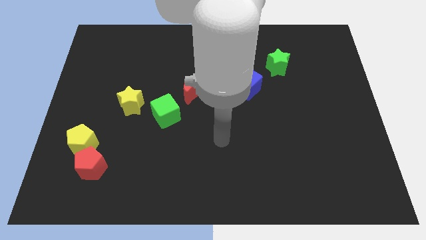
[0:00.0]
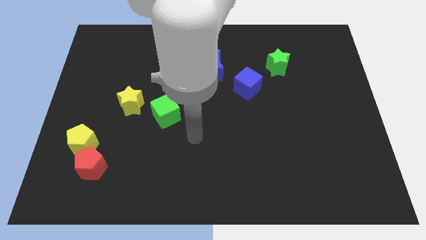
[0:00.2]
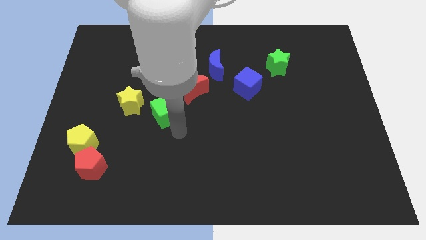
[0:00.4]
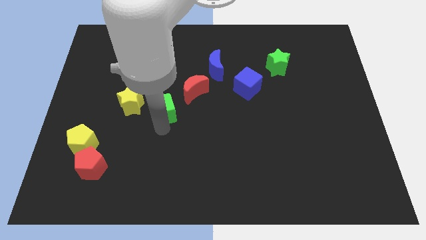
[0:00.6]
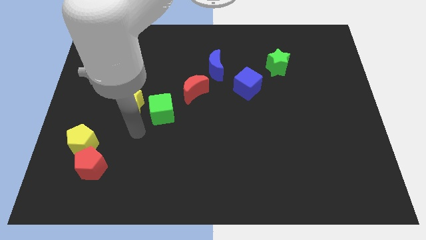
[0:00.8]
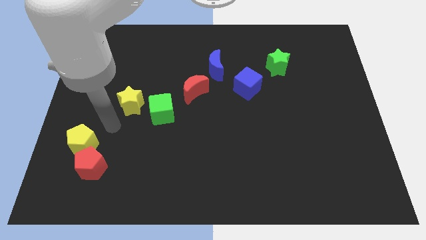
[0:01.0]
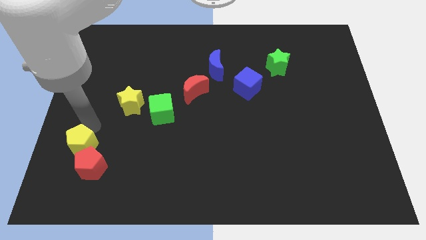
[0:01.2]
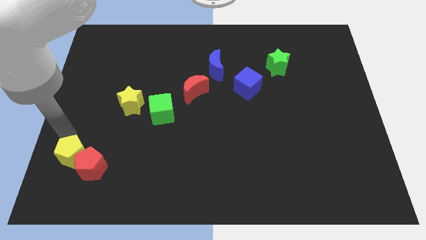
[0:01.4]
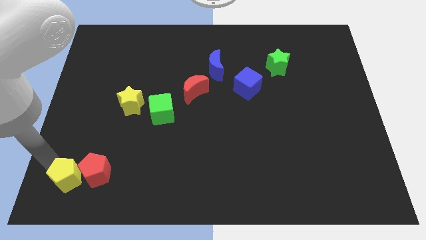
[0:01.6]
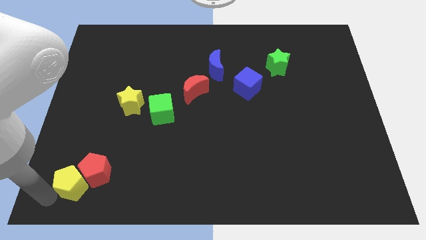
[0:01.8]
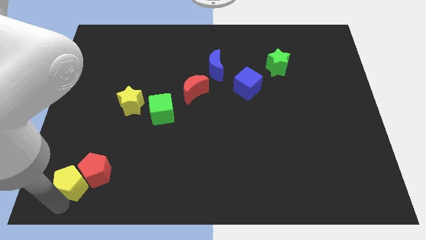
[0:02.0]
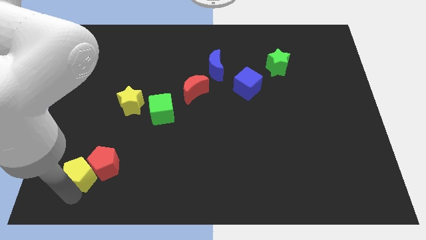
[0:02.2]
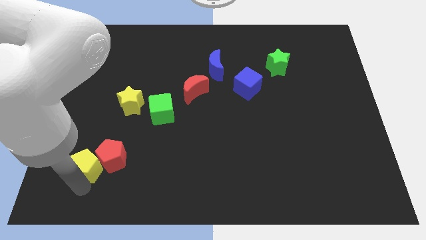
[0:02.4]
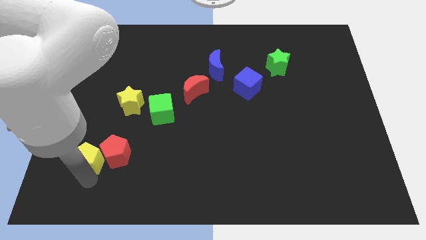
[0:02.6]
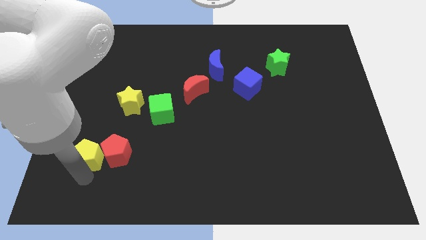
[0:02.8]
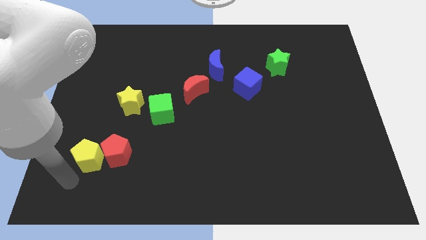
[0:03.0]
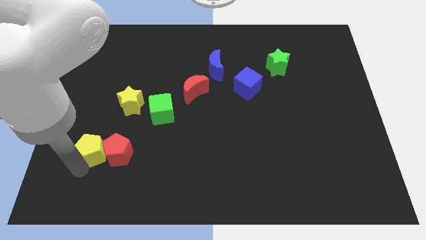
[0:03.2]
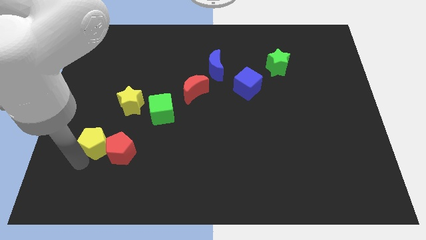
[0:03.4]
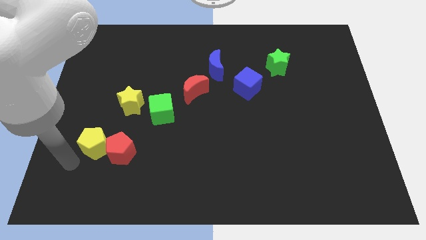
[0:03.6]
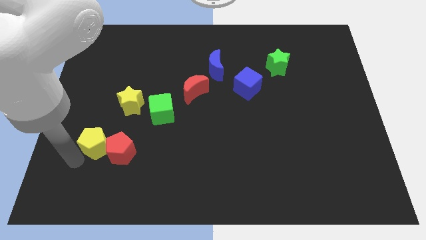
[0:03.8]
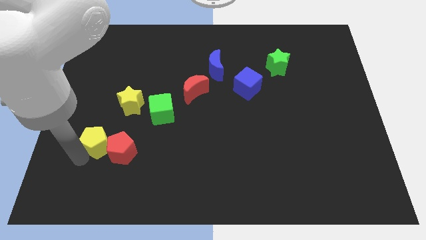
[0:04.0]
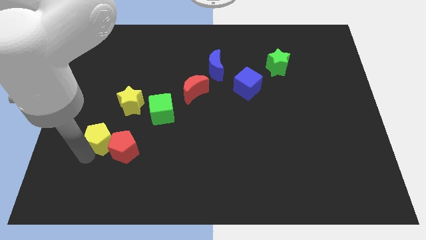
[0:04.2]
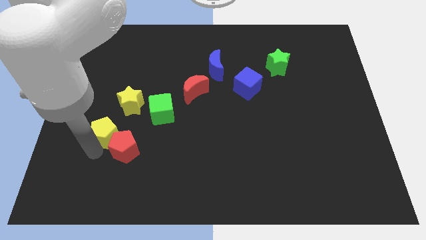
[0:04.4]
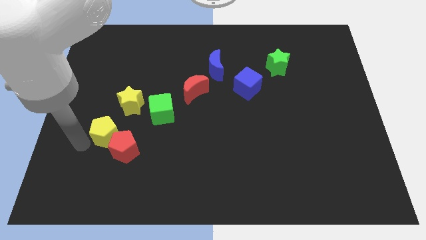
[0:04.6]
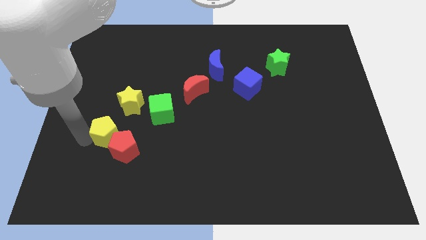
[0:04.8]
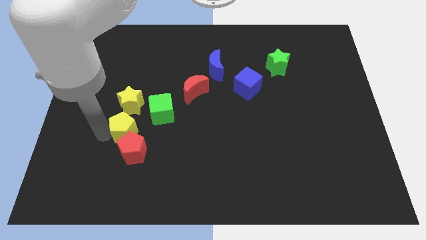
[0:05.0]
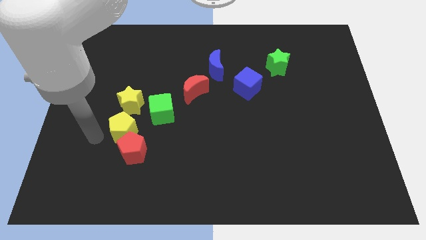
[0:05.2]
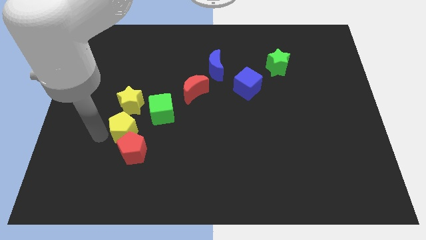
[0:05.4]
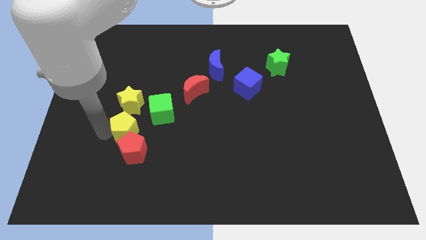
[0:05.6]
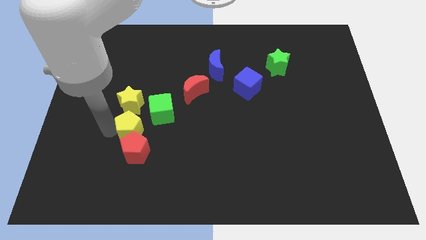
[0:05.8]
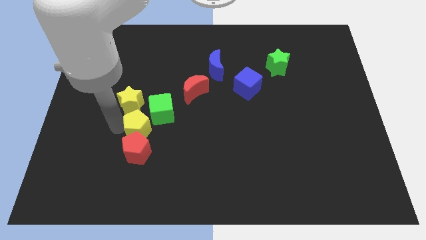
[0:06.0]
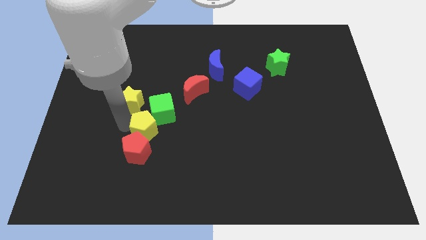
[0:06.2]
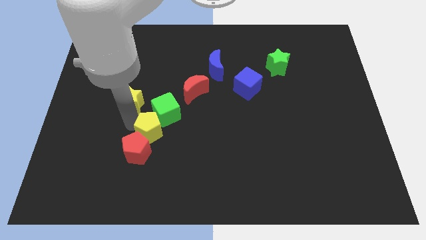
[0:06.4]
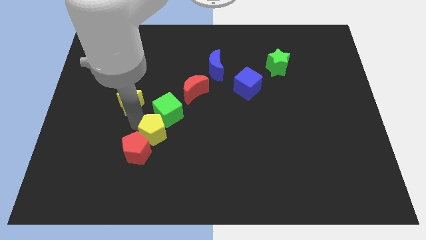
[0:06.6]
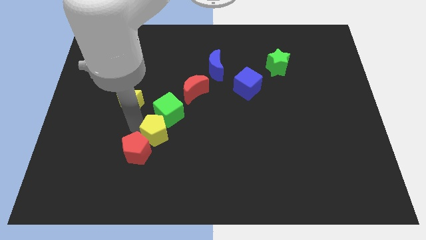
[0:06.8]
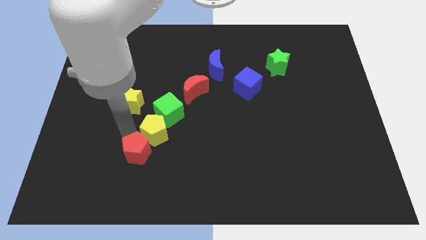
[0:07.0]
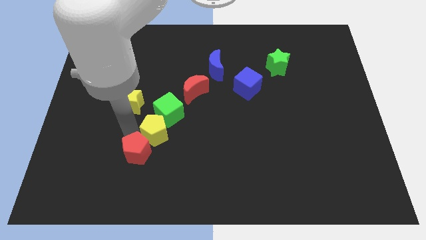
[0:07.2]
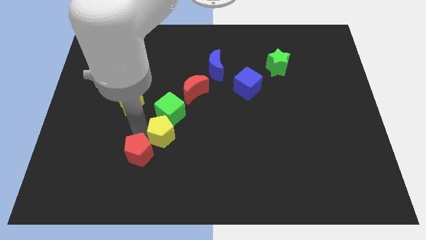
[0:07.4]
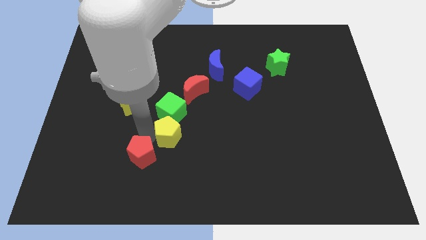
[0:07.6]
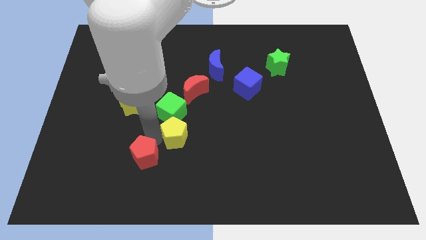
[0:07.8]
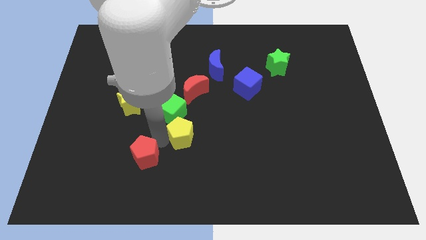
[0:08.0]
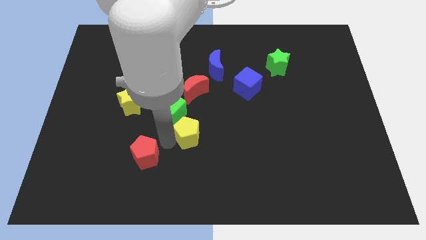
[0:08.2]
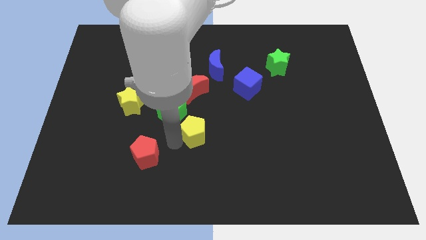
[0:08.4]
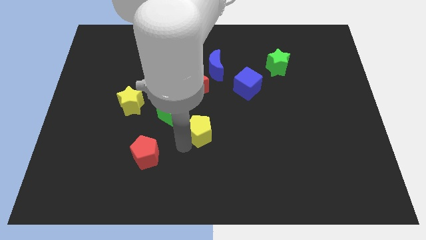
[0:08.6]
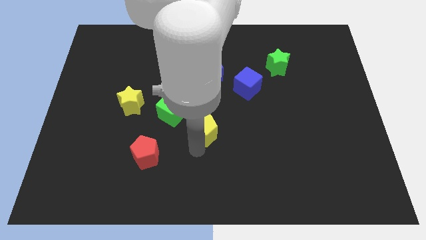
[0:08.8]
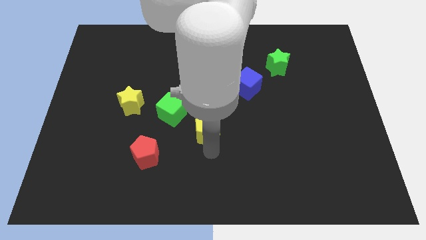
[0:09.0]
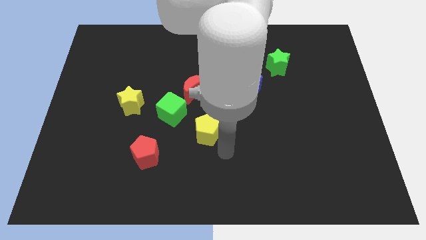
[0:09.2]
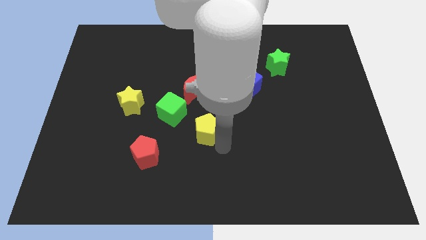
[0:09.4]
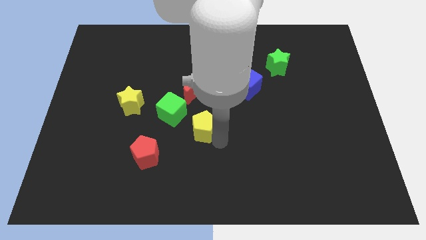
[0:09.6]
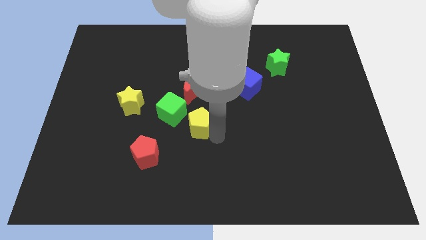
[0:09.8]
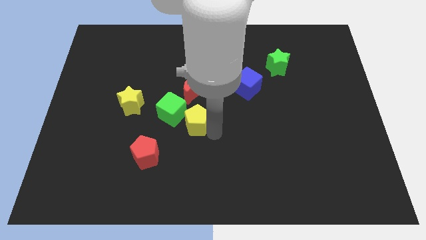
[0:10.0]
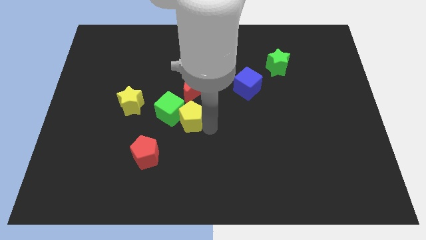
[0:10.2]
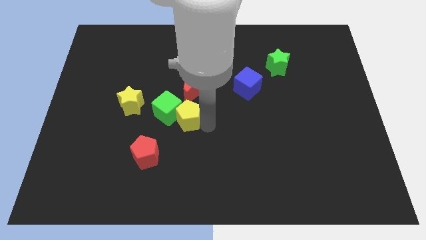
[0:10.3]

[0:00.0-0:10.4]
push the yellow pentagon just right of the yellow star

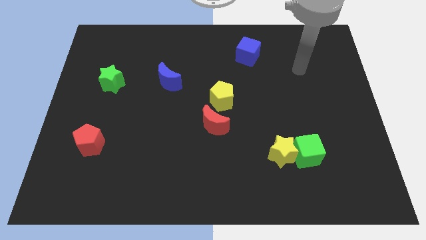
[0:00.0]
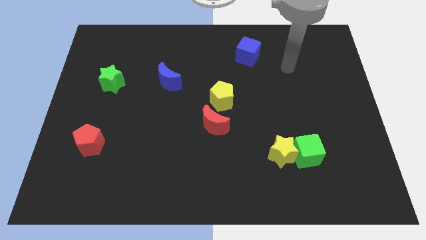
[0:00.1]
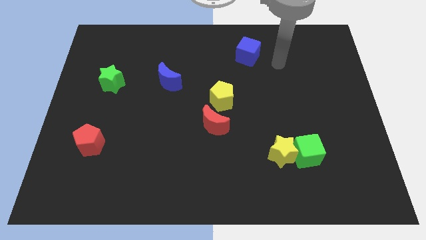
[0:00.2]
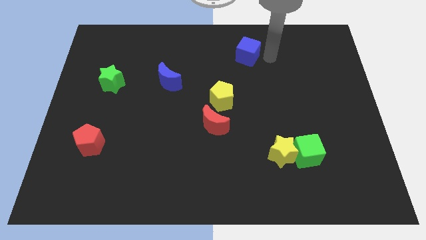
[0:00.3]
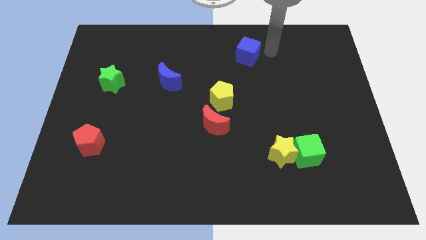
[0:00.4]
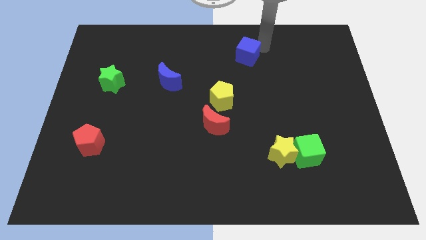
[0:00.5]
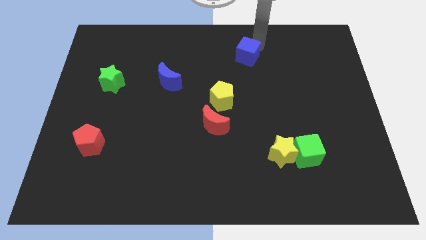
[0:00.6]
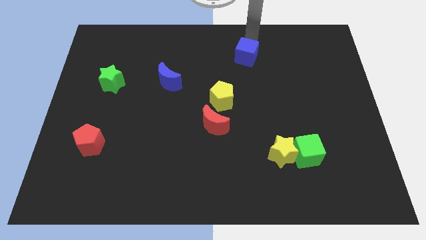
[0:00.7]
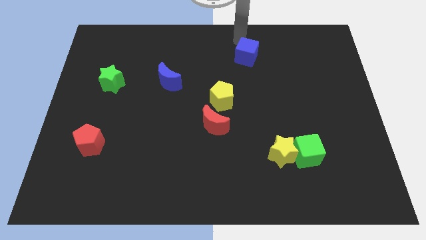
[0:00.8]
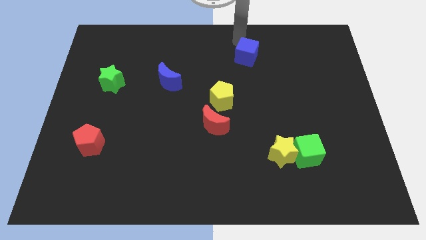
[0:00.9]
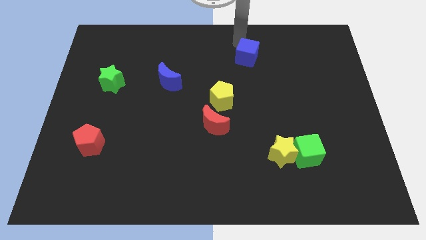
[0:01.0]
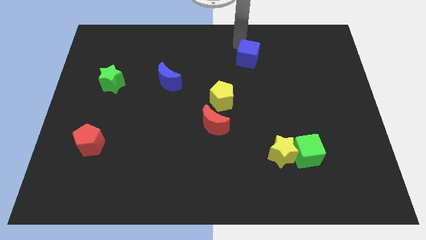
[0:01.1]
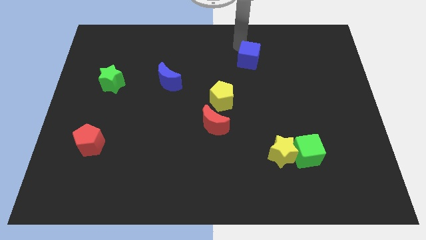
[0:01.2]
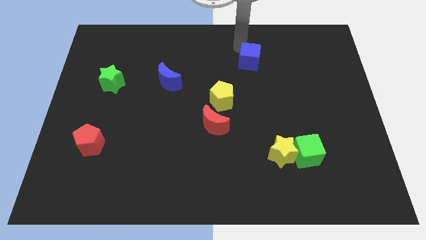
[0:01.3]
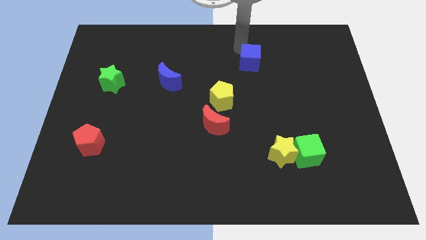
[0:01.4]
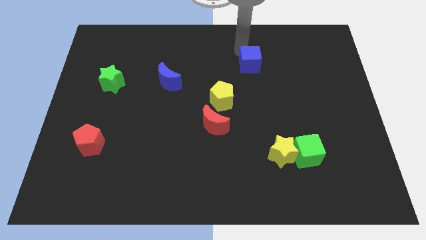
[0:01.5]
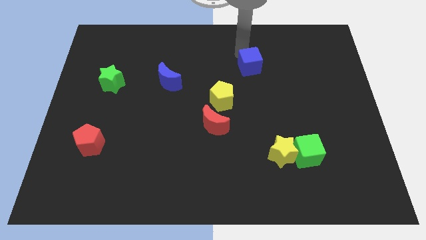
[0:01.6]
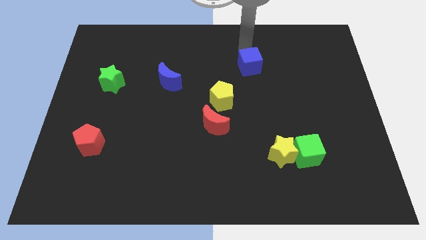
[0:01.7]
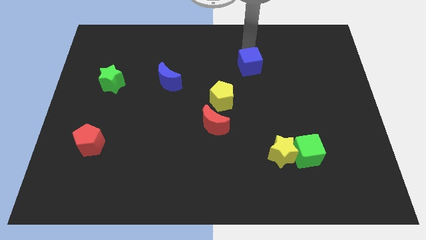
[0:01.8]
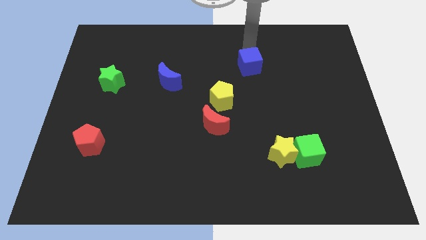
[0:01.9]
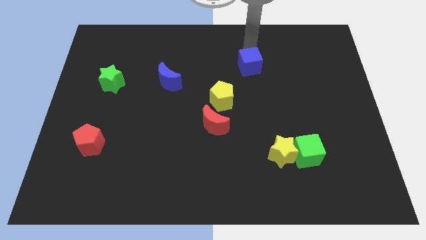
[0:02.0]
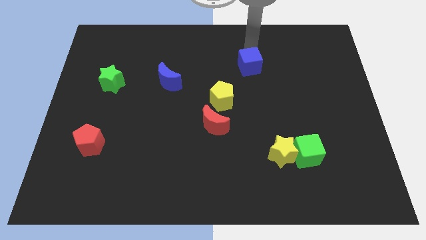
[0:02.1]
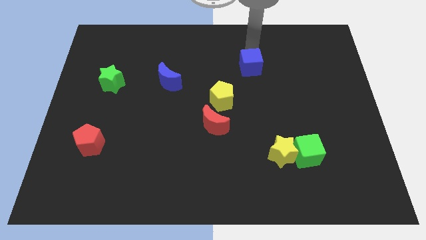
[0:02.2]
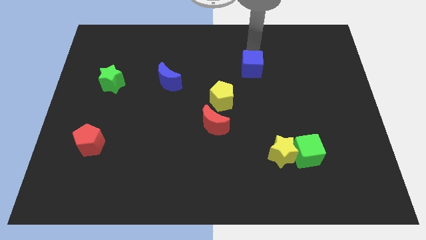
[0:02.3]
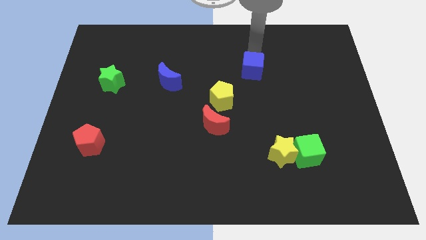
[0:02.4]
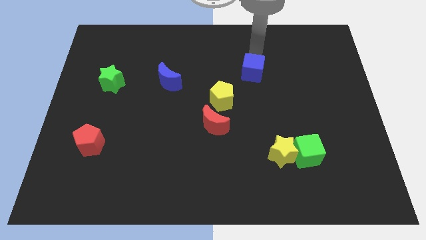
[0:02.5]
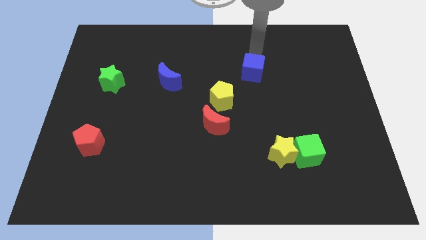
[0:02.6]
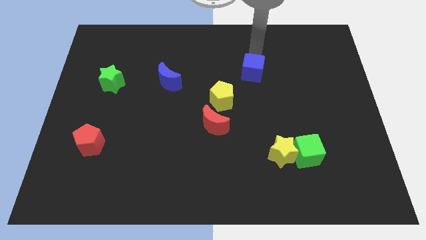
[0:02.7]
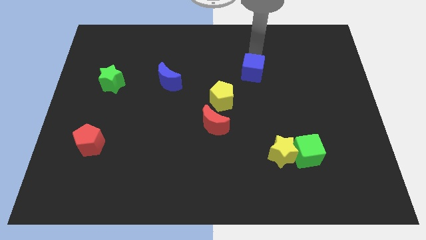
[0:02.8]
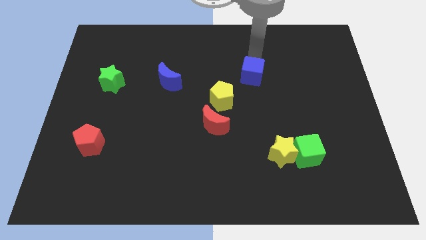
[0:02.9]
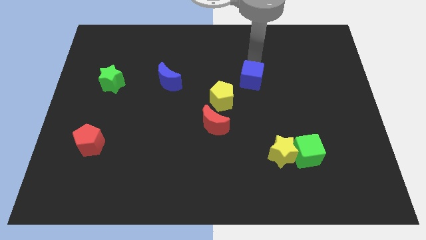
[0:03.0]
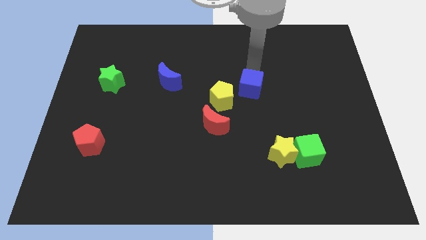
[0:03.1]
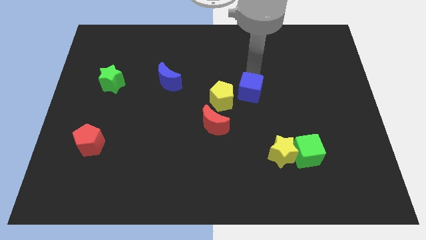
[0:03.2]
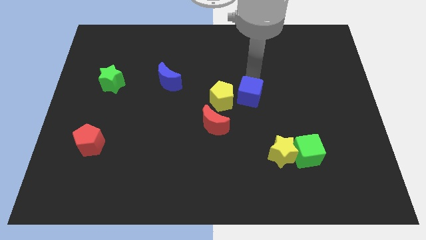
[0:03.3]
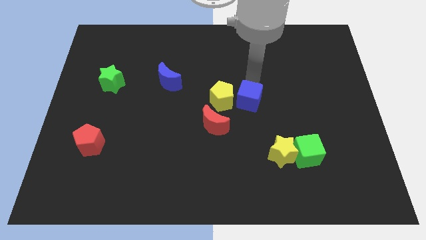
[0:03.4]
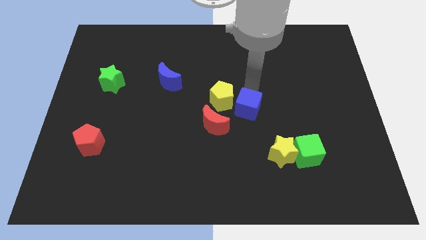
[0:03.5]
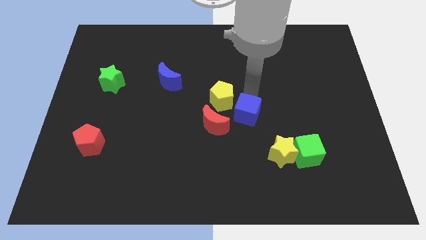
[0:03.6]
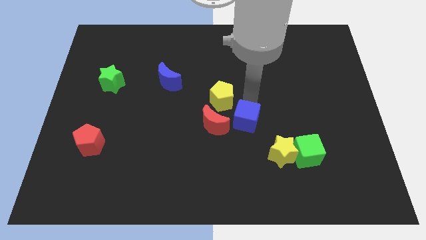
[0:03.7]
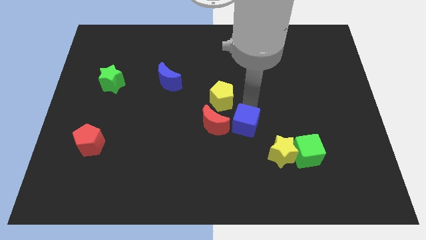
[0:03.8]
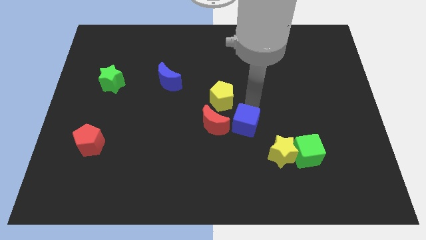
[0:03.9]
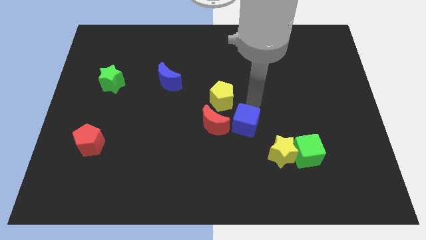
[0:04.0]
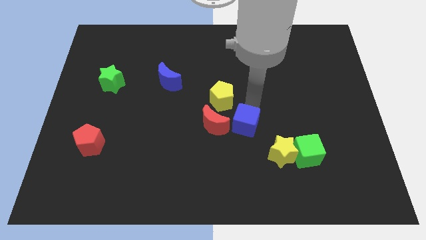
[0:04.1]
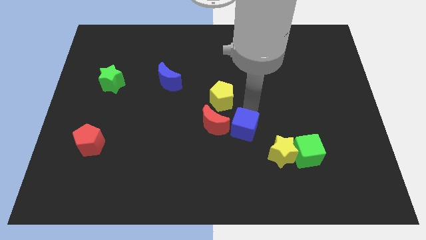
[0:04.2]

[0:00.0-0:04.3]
put the blue cube to the bottom right side of the red moon
